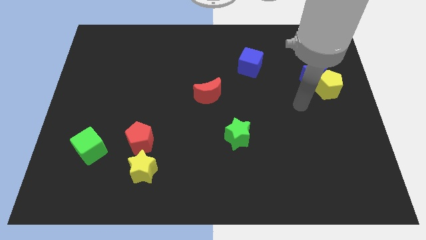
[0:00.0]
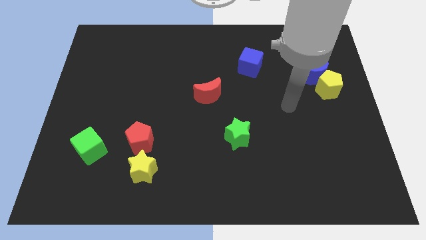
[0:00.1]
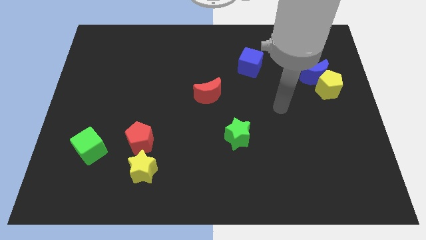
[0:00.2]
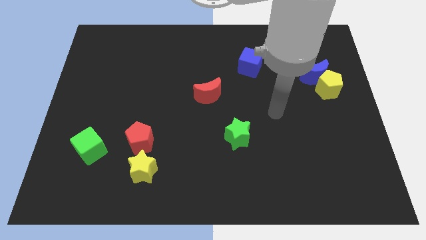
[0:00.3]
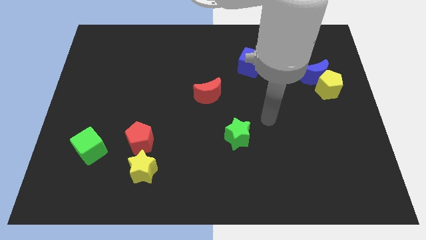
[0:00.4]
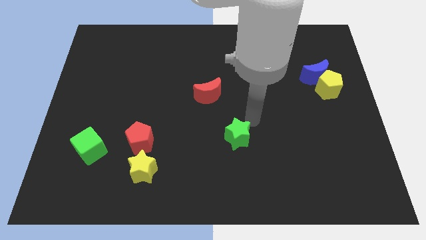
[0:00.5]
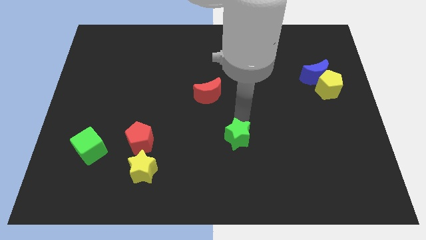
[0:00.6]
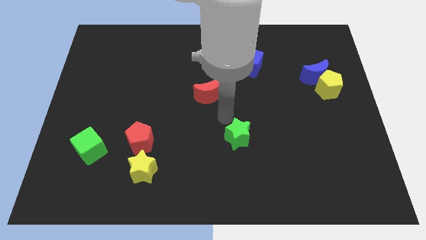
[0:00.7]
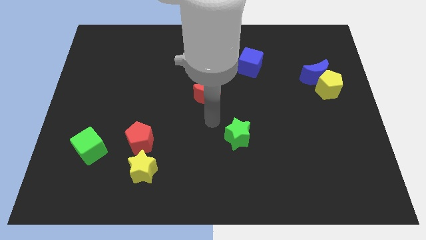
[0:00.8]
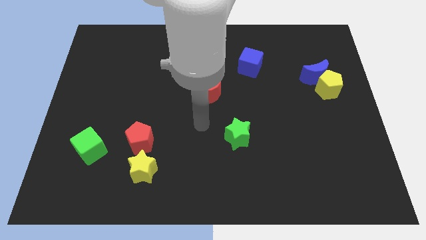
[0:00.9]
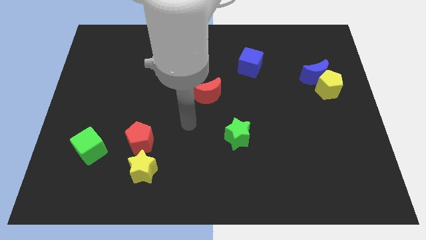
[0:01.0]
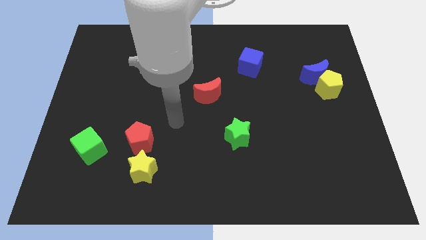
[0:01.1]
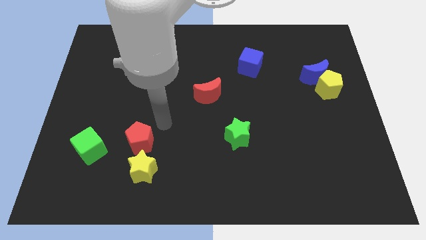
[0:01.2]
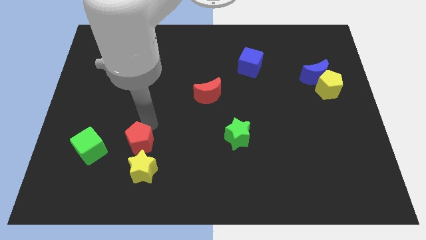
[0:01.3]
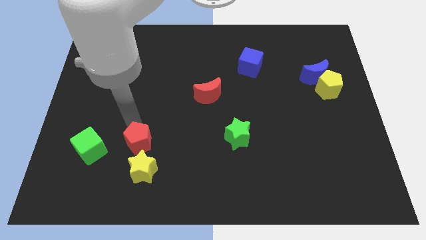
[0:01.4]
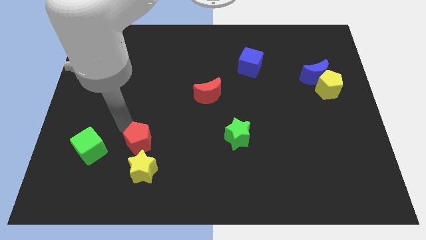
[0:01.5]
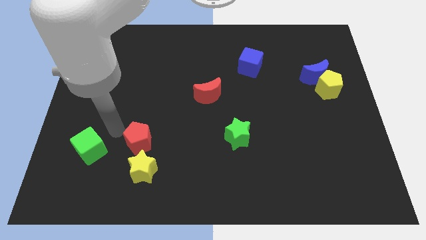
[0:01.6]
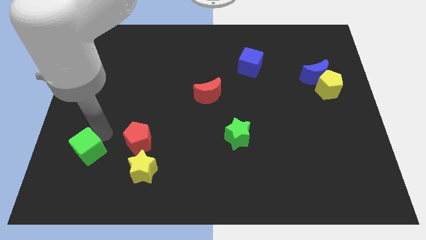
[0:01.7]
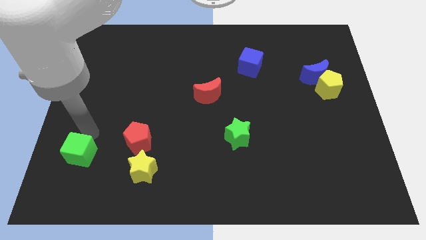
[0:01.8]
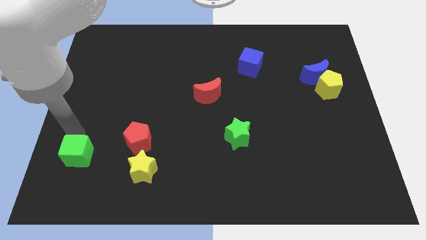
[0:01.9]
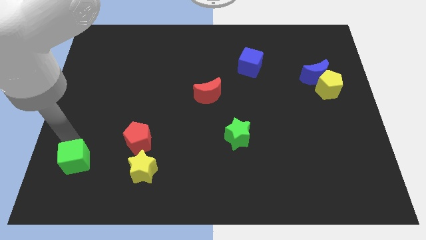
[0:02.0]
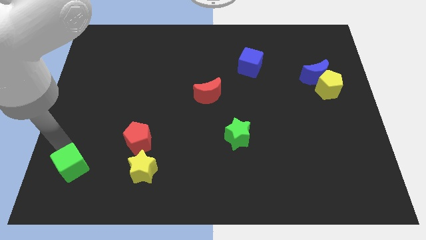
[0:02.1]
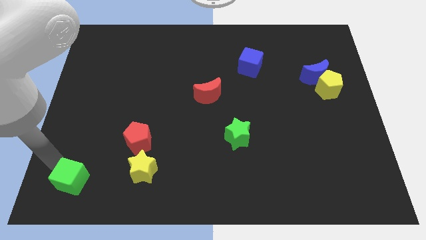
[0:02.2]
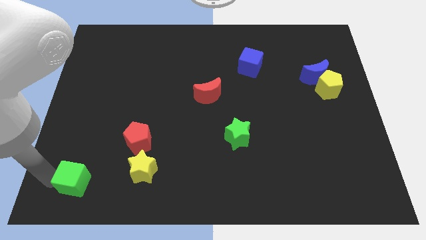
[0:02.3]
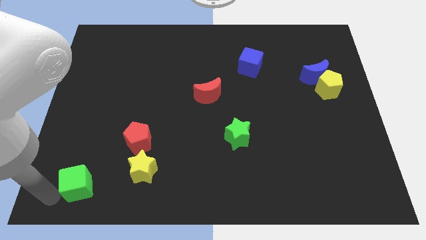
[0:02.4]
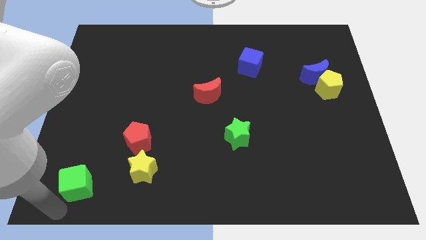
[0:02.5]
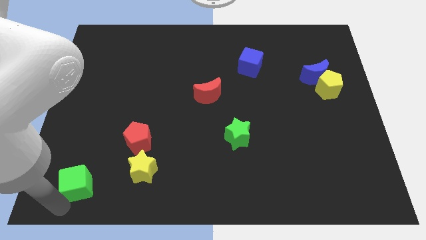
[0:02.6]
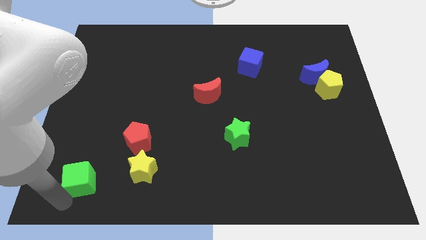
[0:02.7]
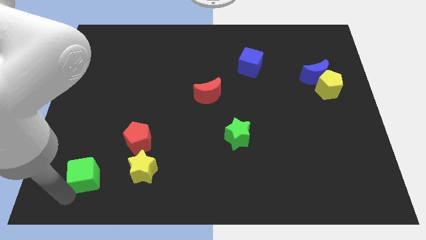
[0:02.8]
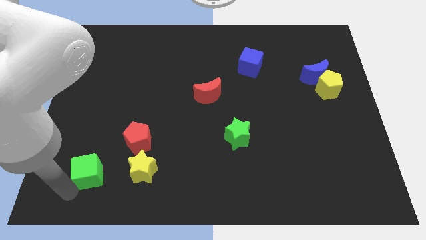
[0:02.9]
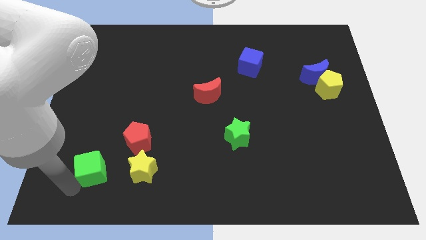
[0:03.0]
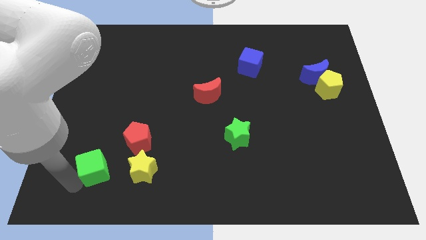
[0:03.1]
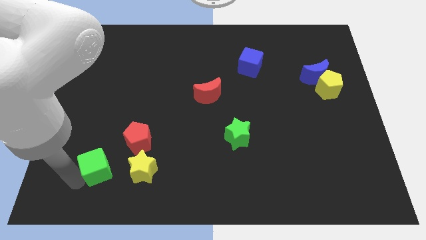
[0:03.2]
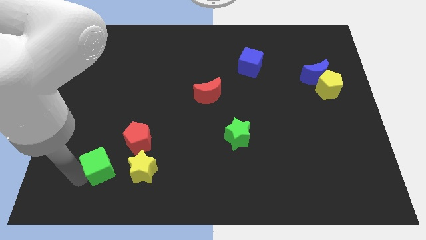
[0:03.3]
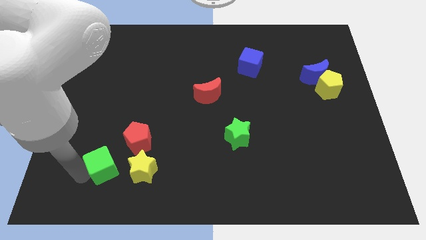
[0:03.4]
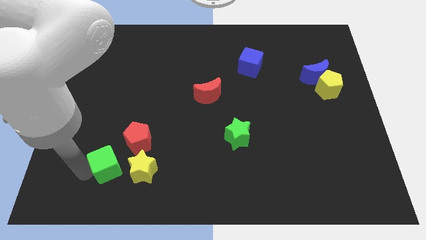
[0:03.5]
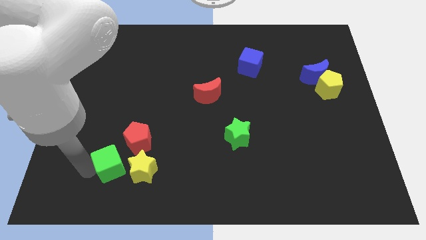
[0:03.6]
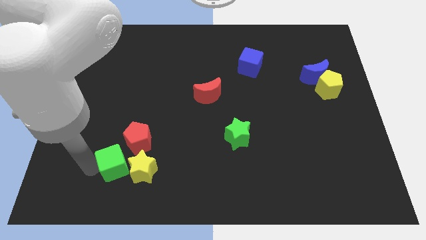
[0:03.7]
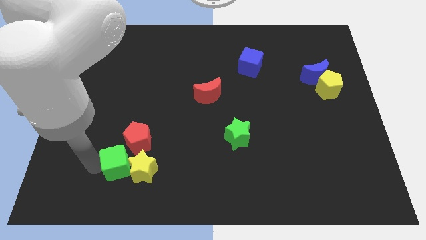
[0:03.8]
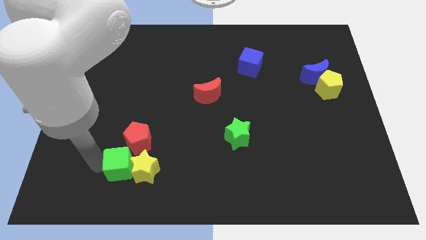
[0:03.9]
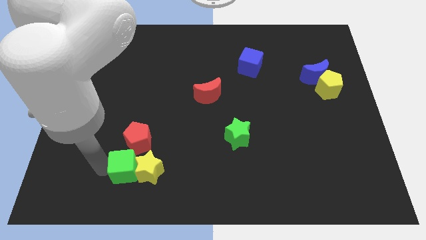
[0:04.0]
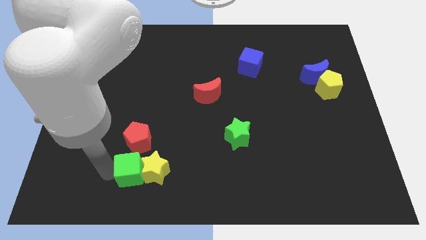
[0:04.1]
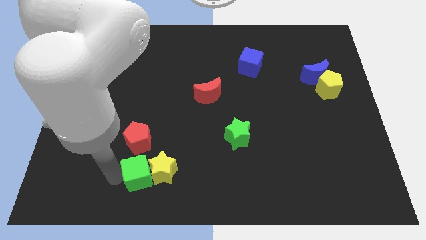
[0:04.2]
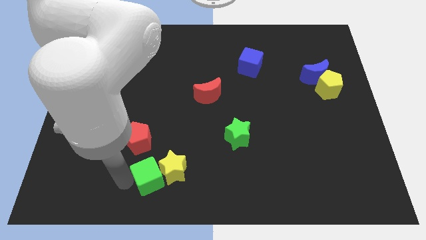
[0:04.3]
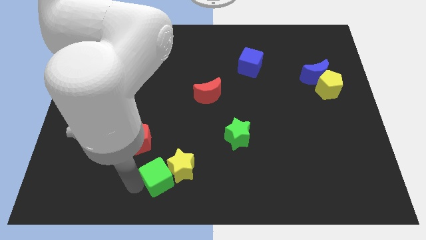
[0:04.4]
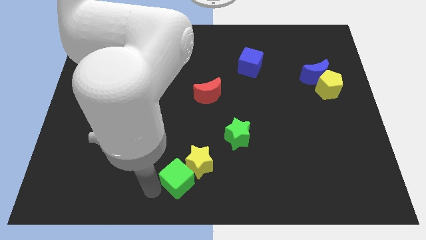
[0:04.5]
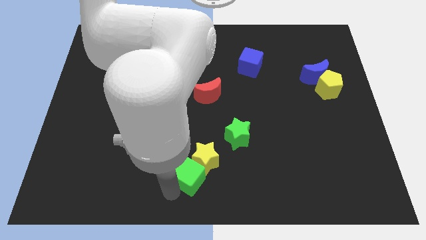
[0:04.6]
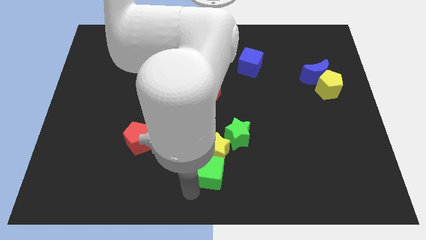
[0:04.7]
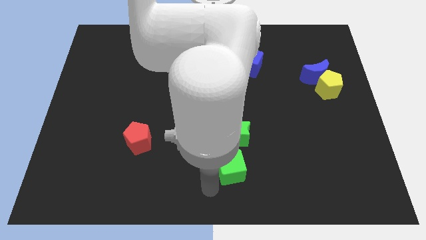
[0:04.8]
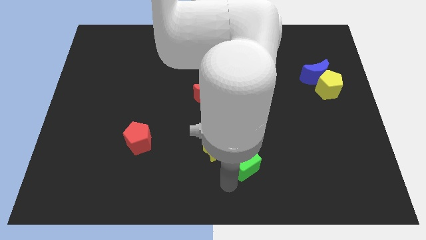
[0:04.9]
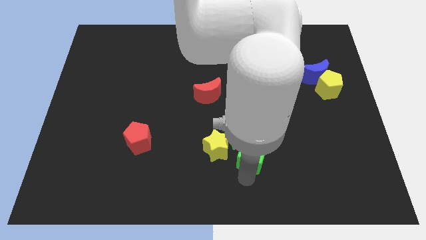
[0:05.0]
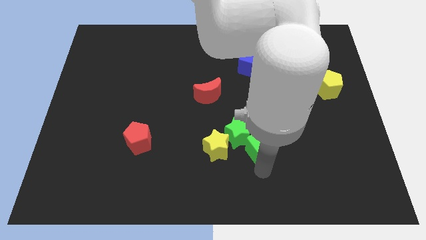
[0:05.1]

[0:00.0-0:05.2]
slide the green cube right of the green star

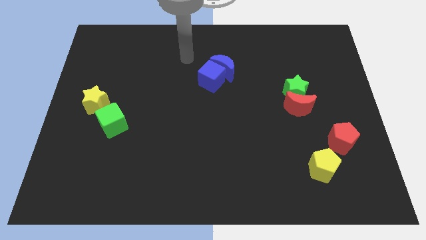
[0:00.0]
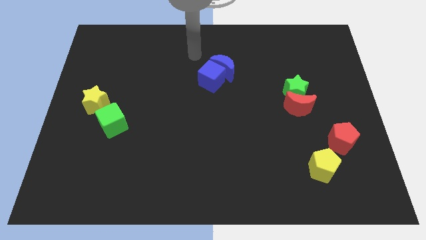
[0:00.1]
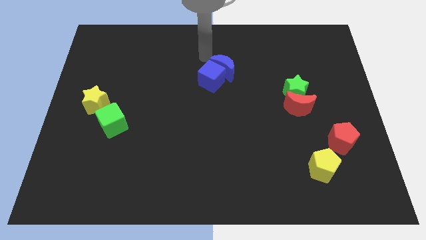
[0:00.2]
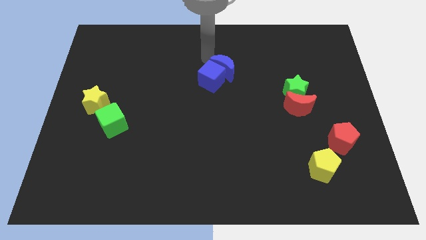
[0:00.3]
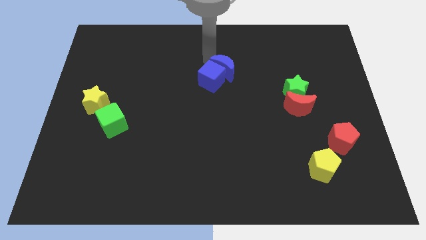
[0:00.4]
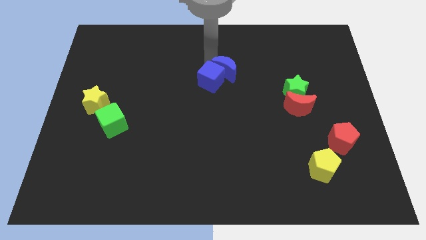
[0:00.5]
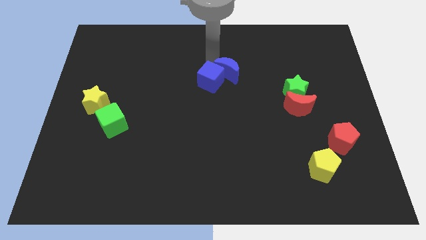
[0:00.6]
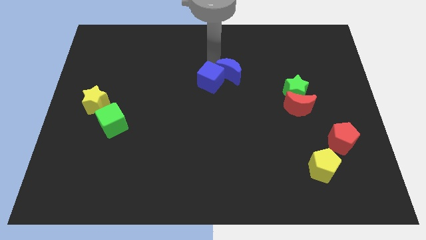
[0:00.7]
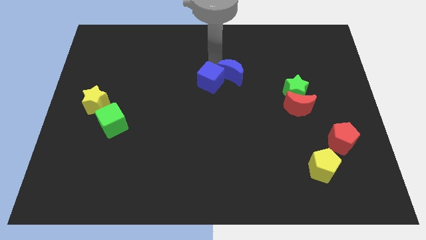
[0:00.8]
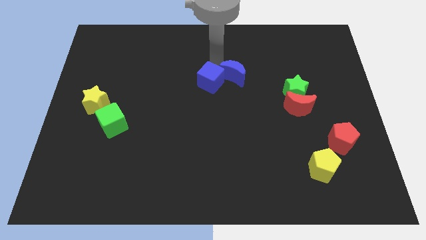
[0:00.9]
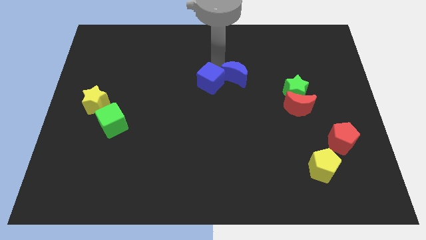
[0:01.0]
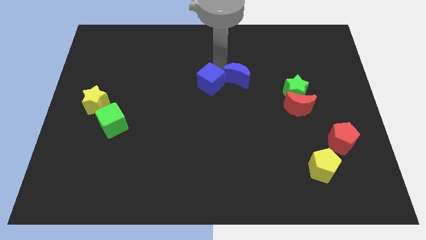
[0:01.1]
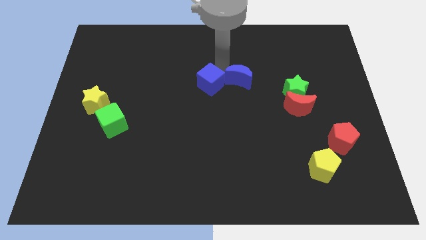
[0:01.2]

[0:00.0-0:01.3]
move the blue moon to the left side of the green star
